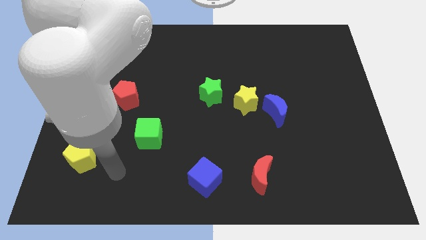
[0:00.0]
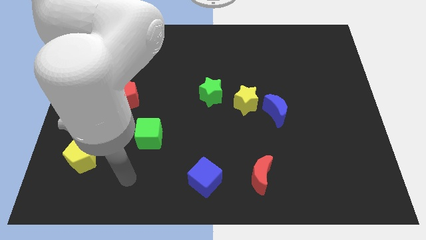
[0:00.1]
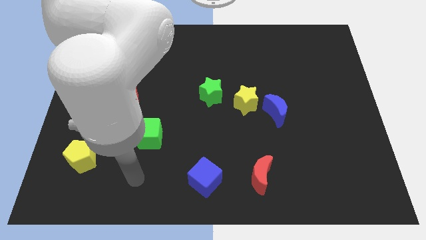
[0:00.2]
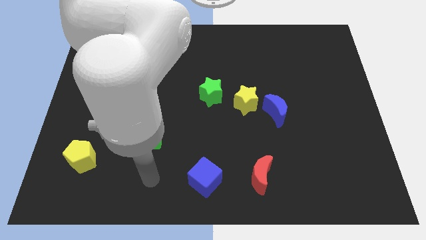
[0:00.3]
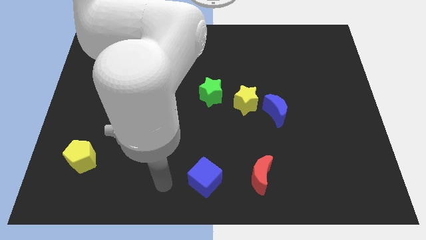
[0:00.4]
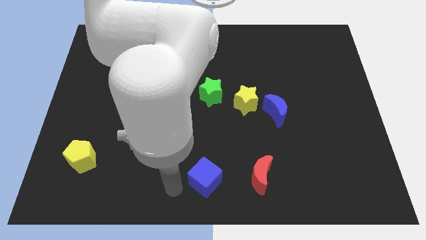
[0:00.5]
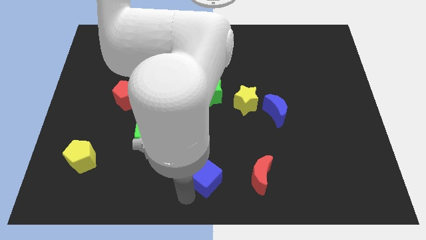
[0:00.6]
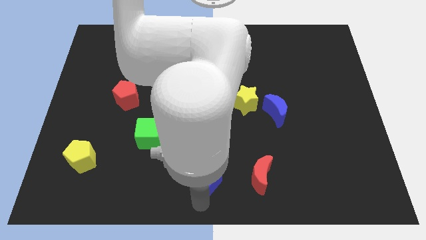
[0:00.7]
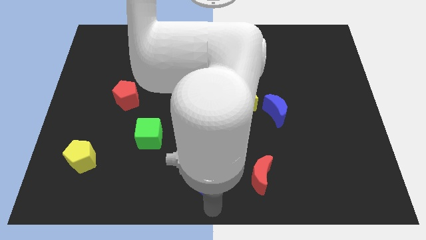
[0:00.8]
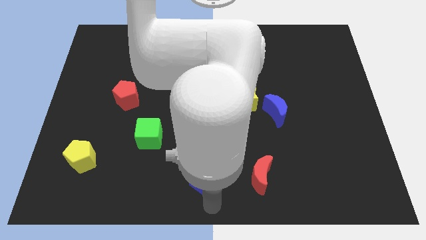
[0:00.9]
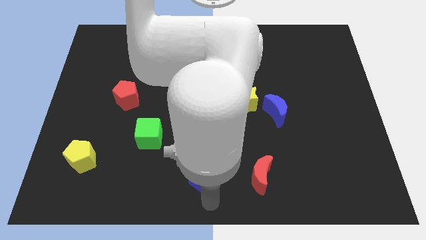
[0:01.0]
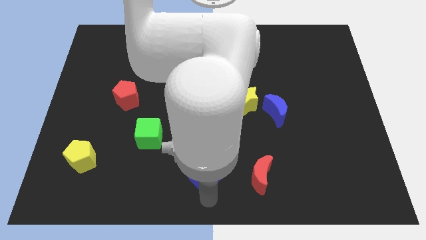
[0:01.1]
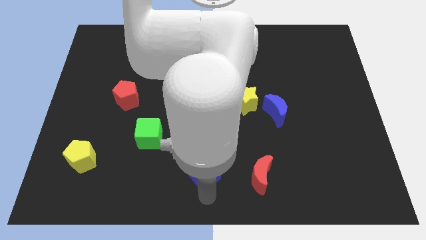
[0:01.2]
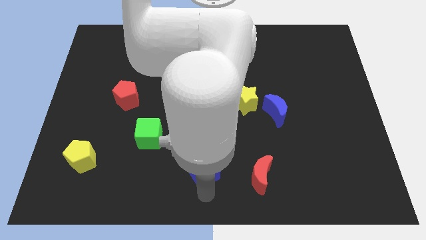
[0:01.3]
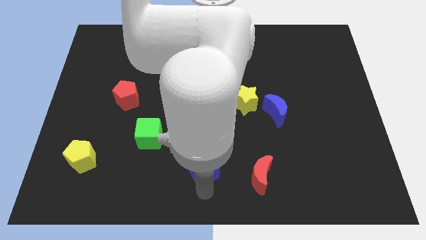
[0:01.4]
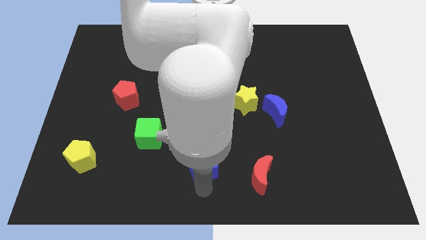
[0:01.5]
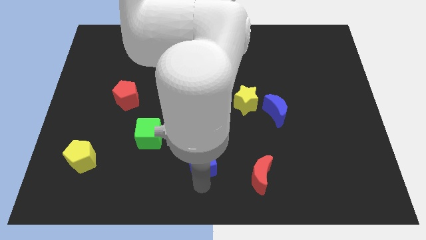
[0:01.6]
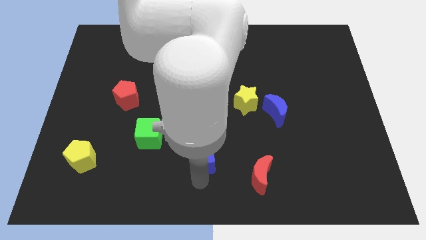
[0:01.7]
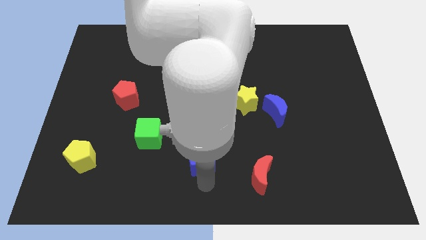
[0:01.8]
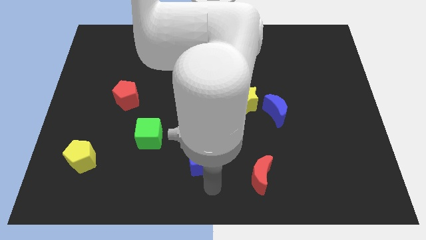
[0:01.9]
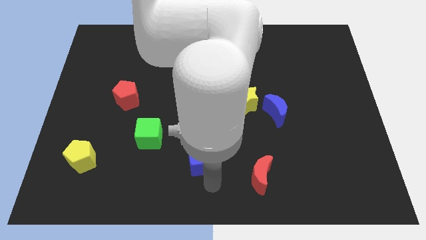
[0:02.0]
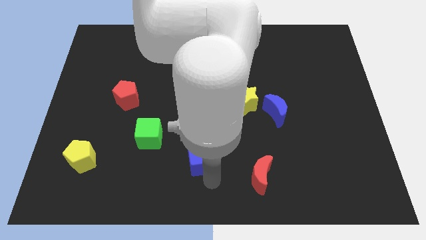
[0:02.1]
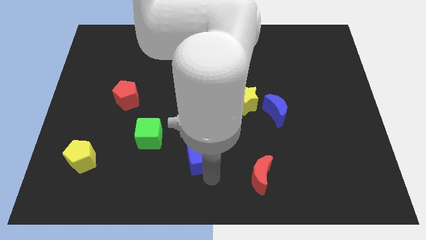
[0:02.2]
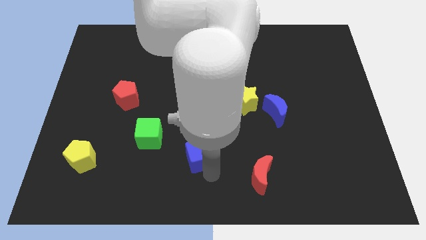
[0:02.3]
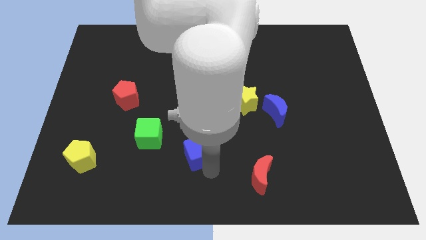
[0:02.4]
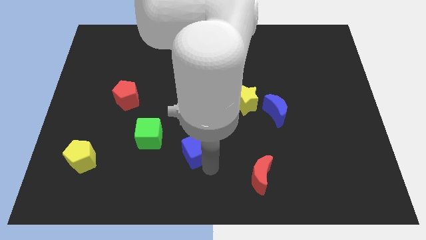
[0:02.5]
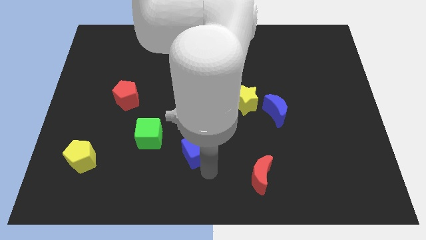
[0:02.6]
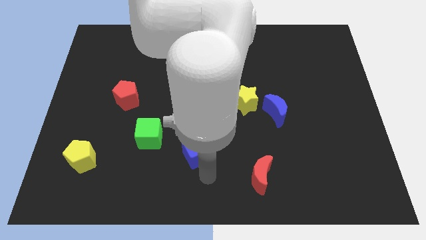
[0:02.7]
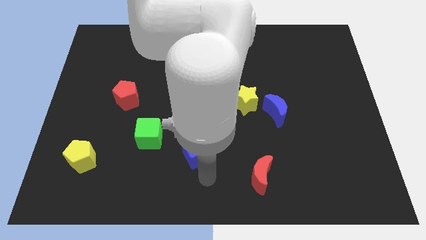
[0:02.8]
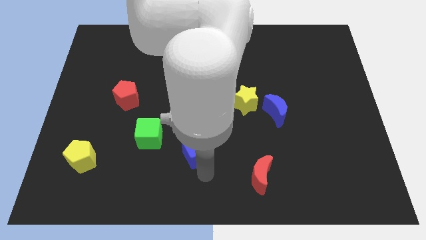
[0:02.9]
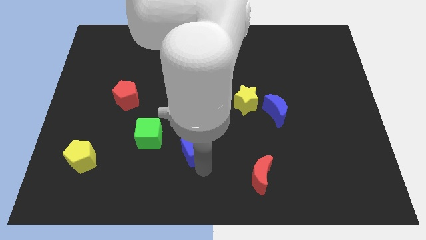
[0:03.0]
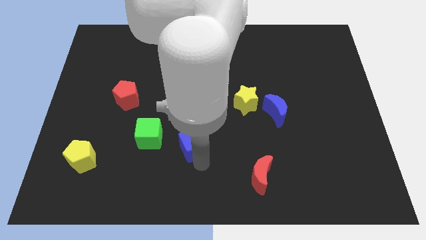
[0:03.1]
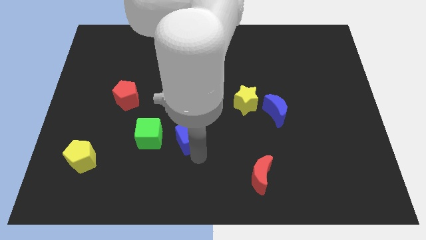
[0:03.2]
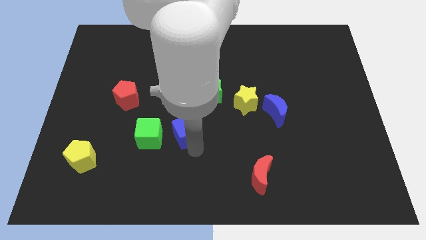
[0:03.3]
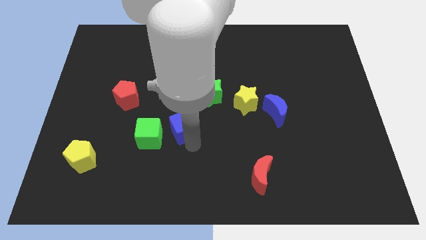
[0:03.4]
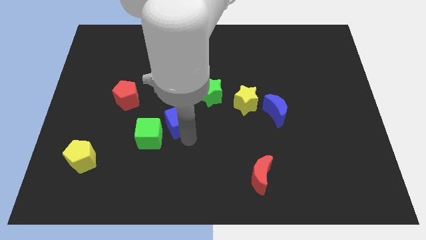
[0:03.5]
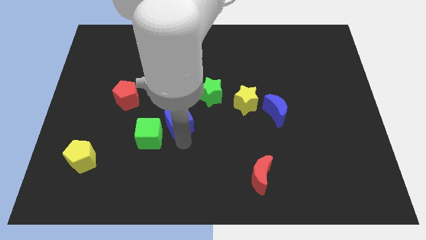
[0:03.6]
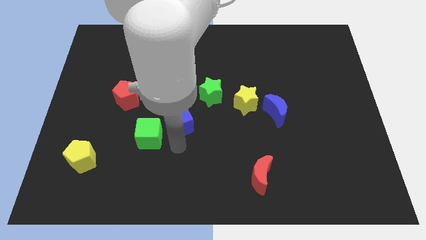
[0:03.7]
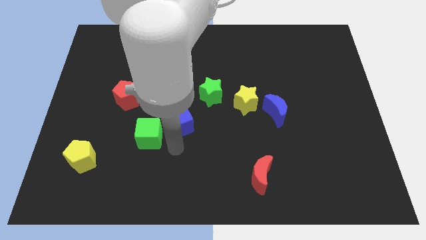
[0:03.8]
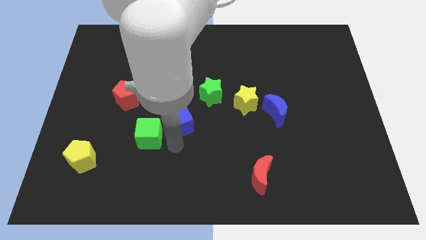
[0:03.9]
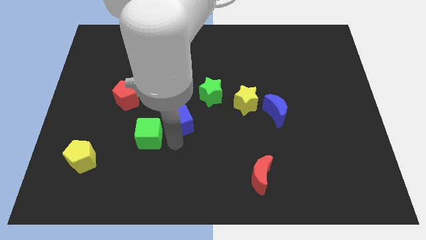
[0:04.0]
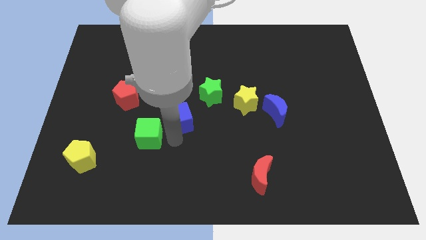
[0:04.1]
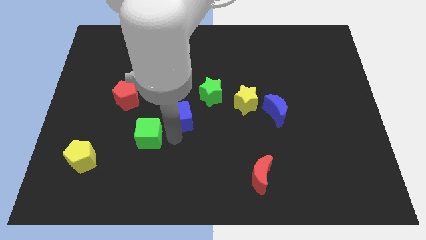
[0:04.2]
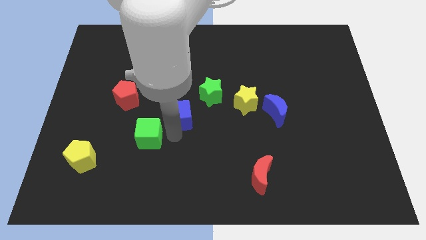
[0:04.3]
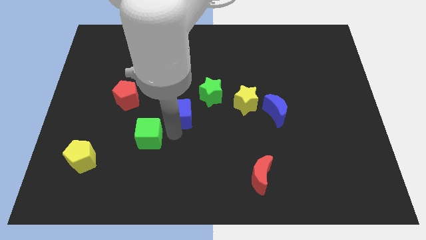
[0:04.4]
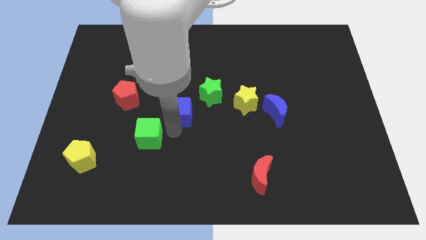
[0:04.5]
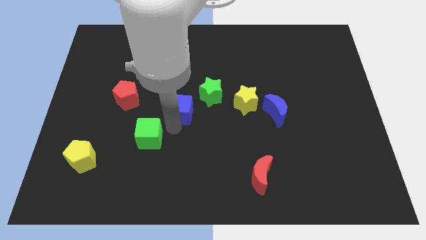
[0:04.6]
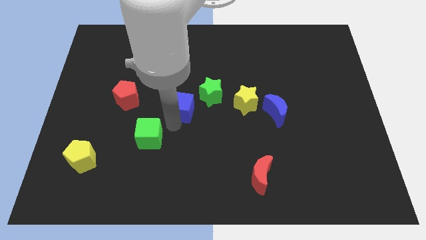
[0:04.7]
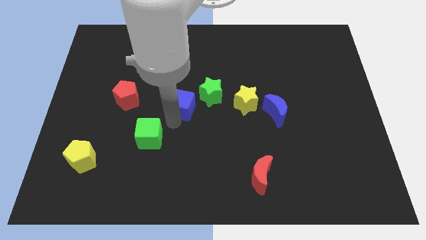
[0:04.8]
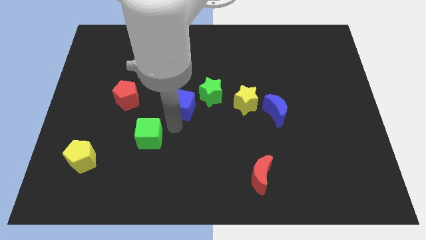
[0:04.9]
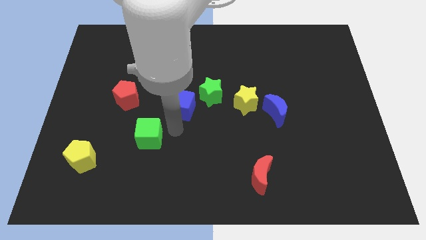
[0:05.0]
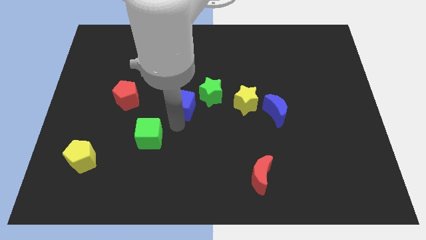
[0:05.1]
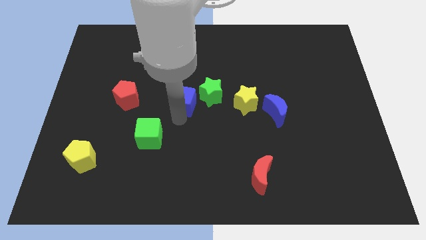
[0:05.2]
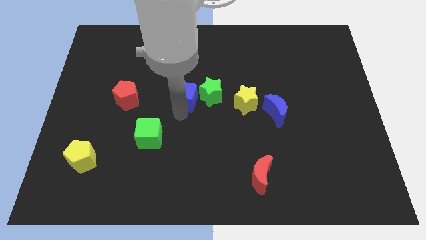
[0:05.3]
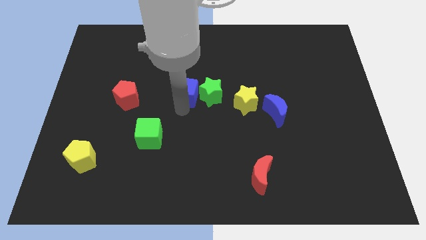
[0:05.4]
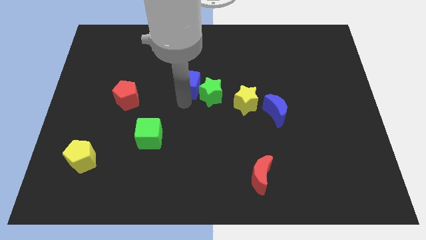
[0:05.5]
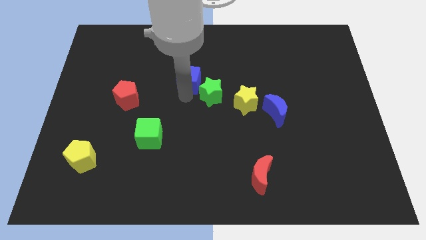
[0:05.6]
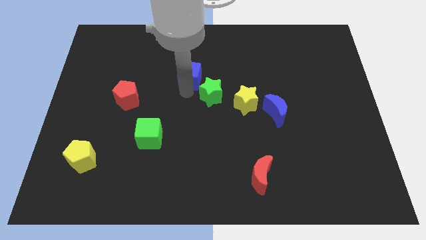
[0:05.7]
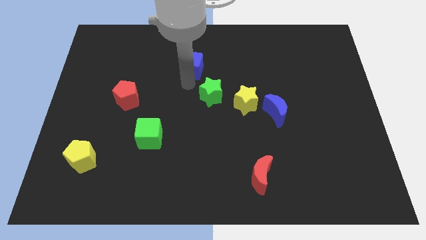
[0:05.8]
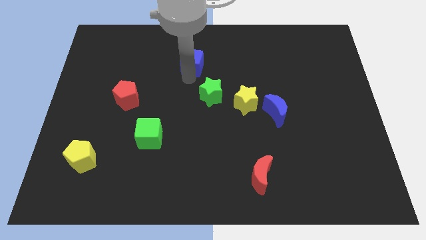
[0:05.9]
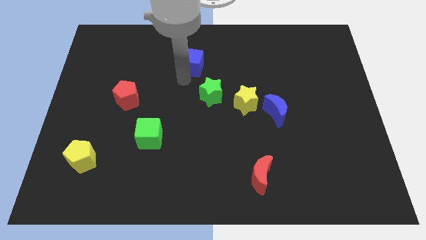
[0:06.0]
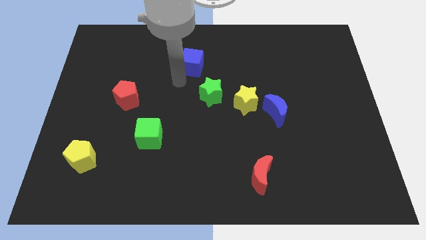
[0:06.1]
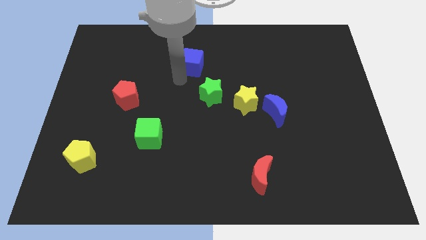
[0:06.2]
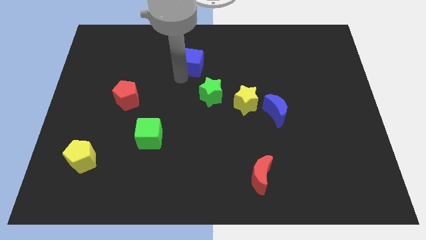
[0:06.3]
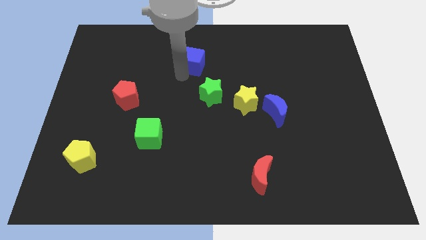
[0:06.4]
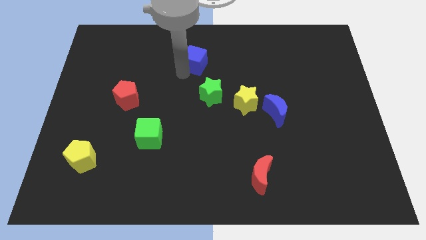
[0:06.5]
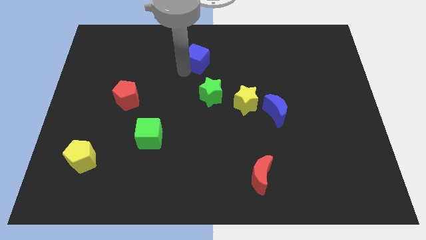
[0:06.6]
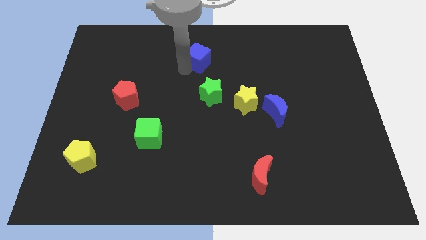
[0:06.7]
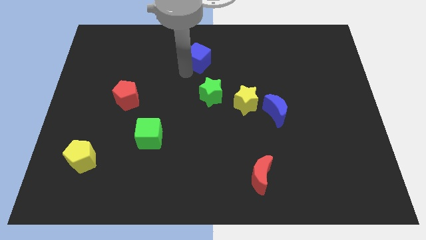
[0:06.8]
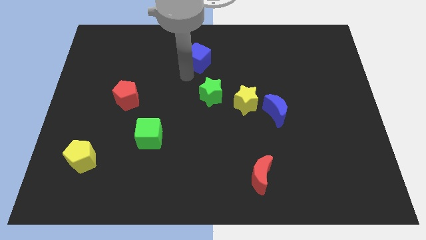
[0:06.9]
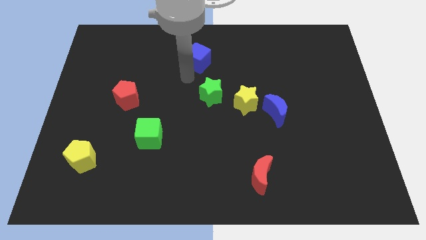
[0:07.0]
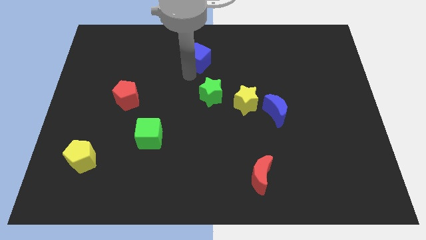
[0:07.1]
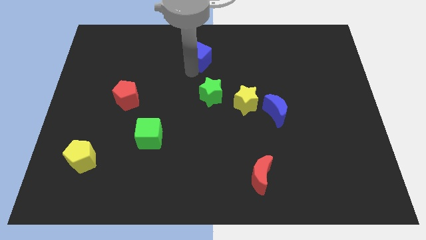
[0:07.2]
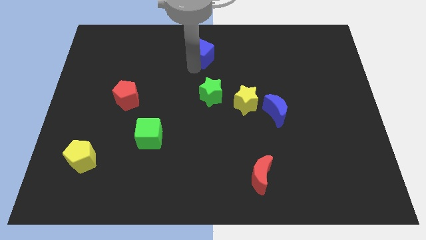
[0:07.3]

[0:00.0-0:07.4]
put the blue cube to the top

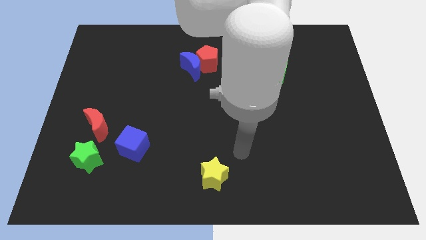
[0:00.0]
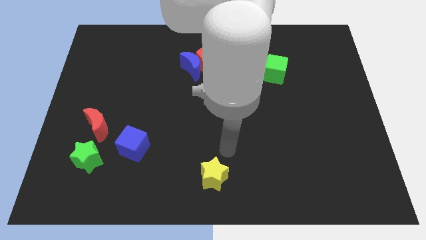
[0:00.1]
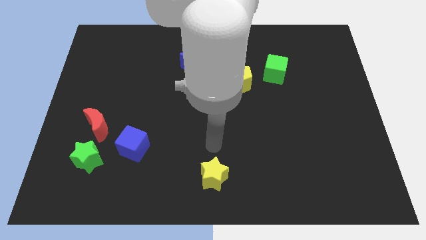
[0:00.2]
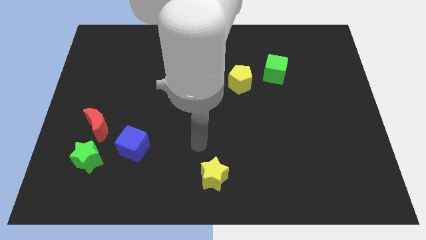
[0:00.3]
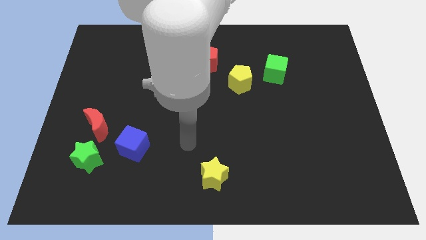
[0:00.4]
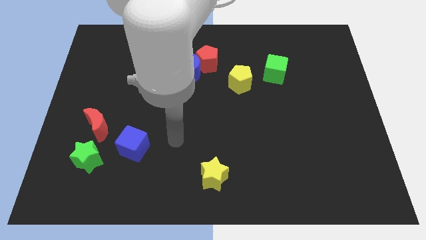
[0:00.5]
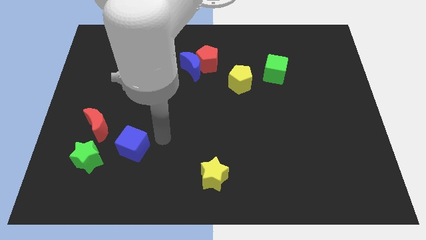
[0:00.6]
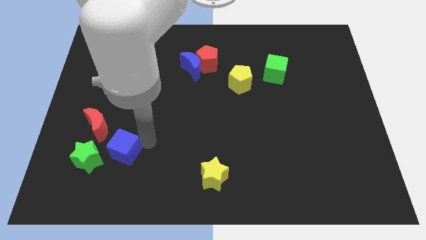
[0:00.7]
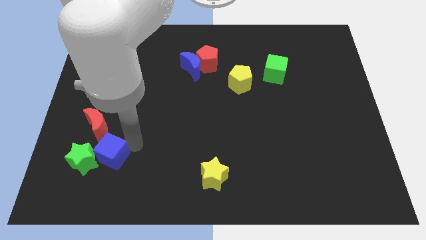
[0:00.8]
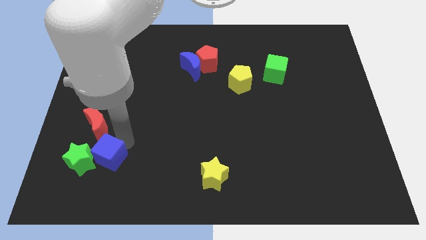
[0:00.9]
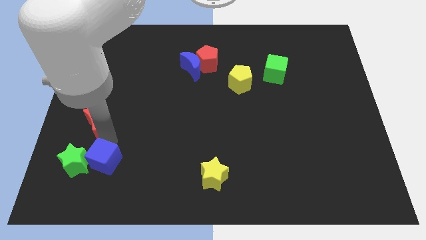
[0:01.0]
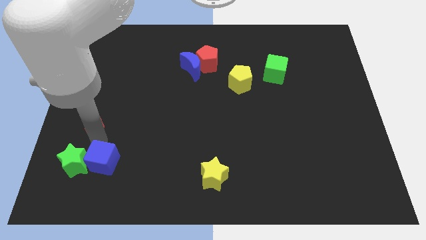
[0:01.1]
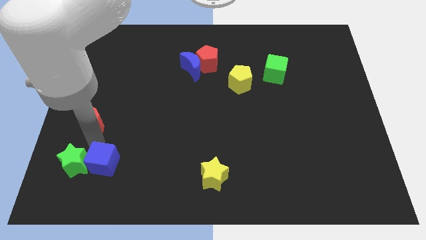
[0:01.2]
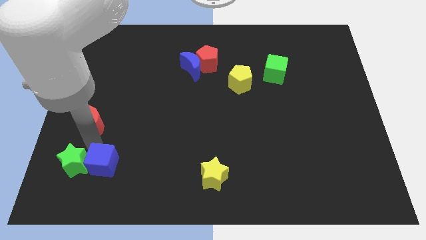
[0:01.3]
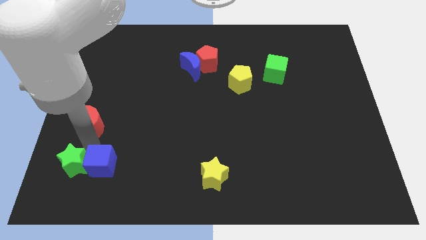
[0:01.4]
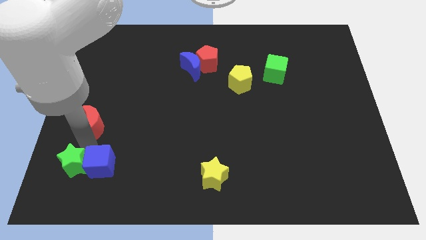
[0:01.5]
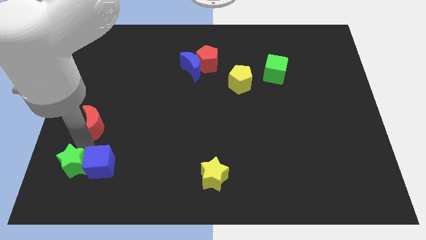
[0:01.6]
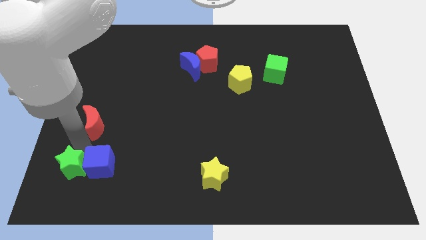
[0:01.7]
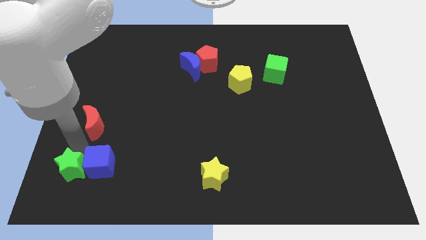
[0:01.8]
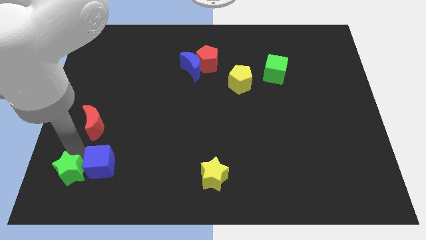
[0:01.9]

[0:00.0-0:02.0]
put the green star to the bottom left
